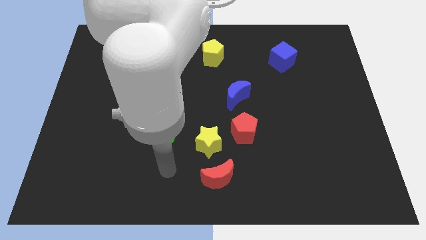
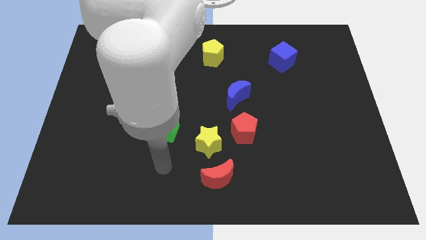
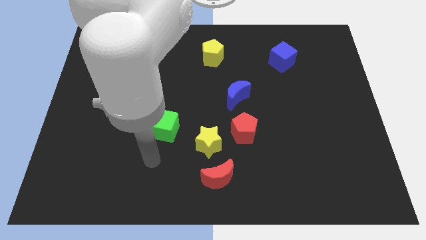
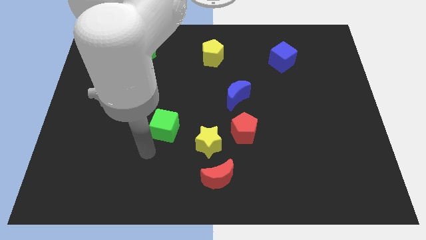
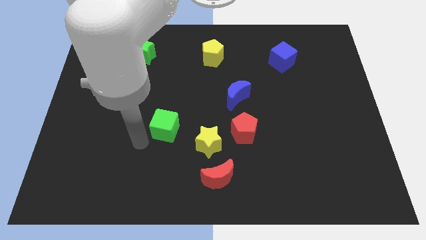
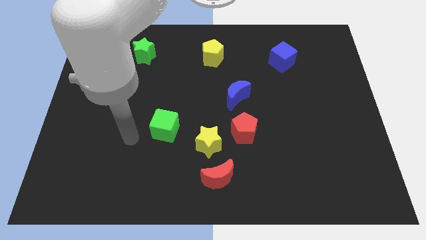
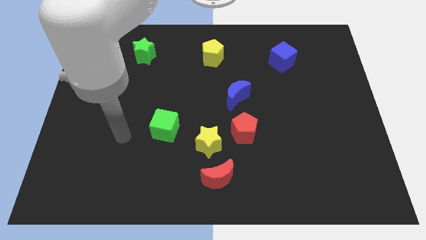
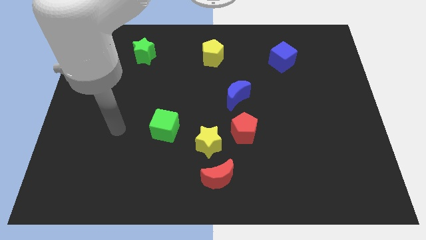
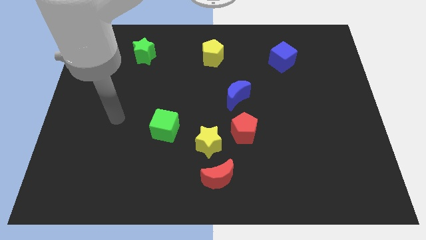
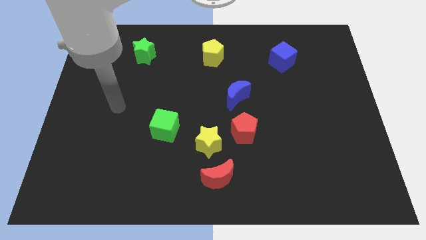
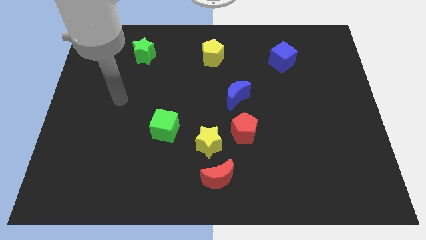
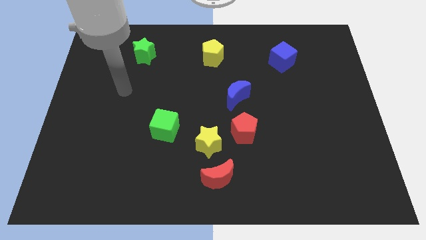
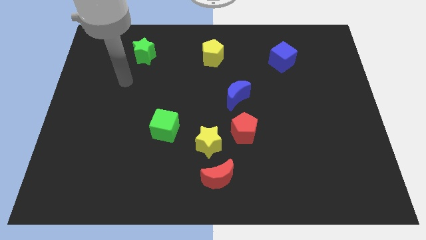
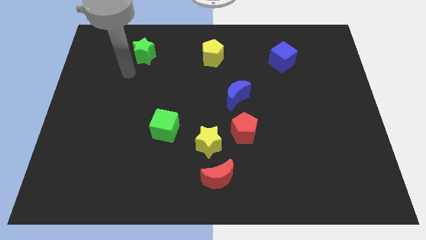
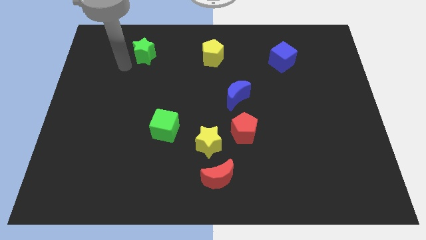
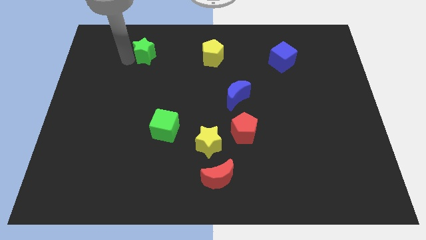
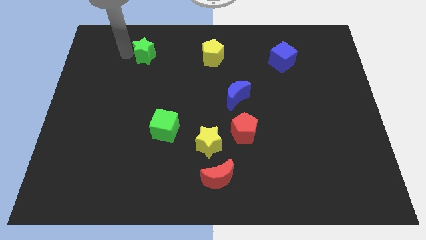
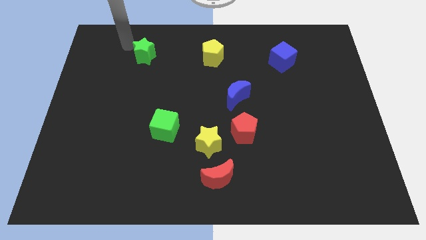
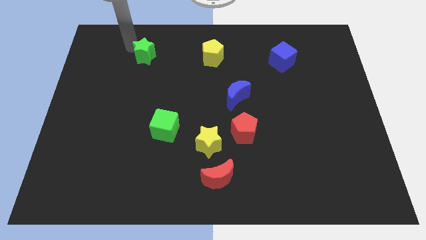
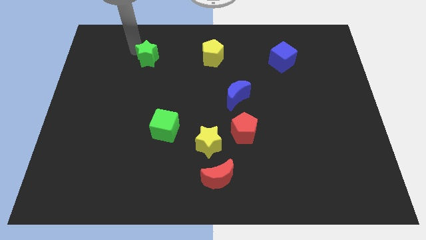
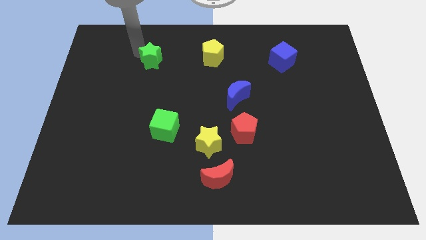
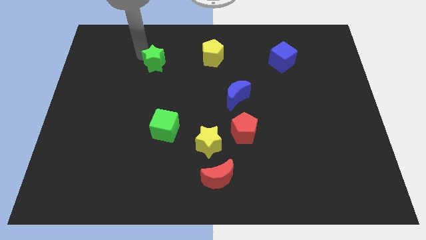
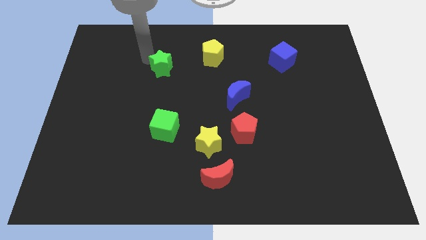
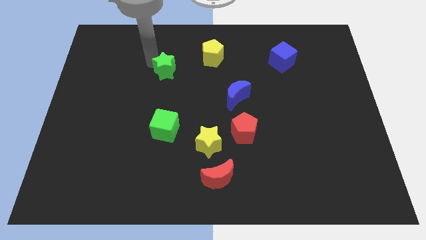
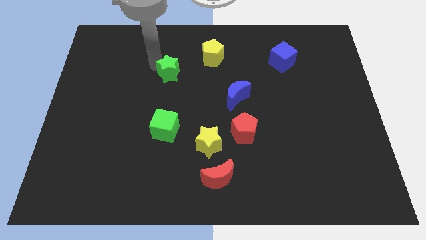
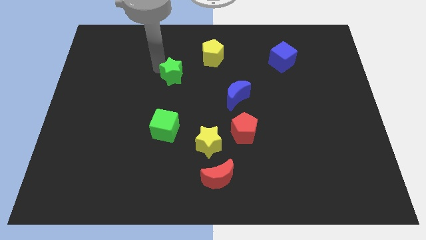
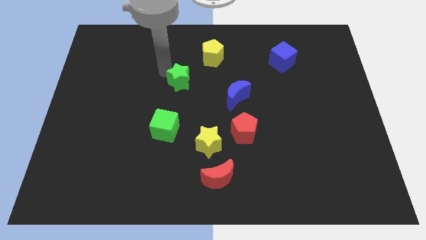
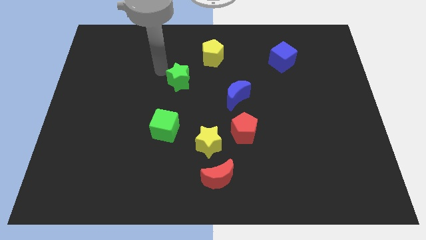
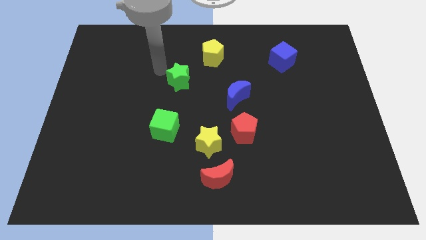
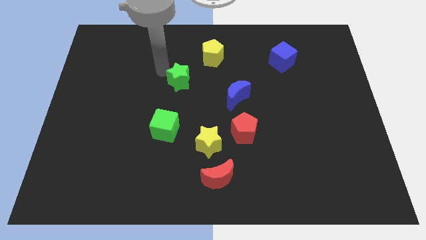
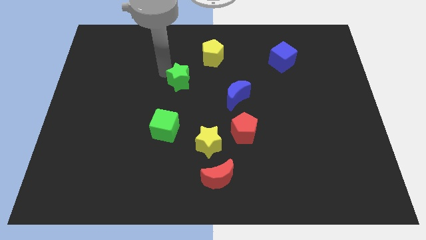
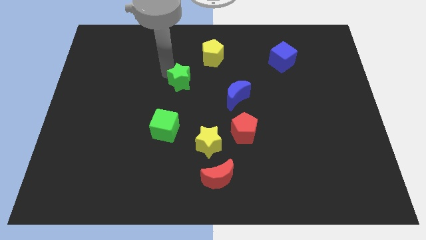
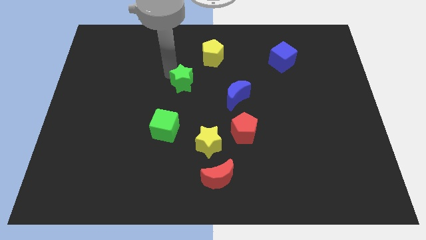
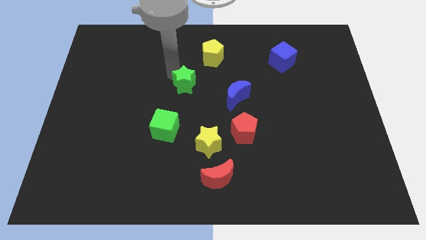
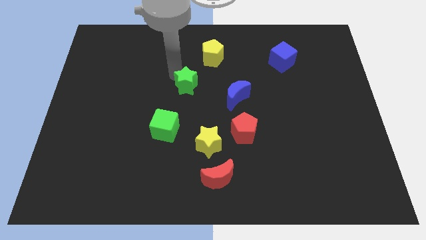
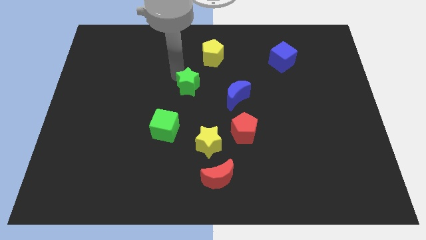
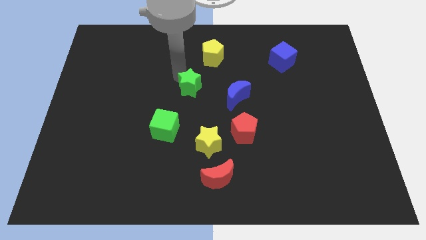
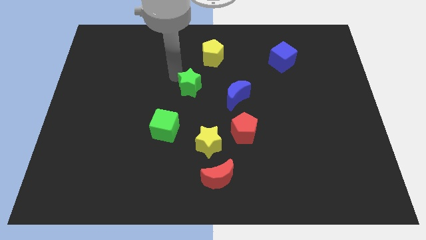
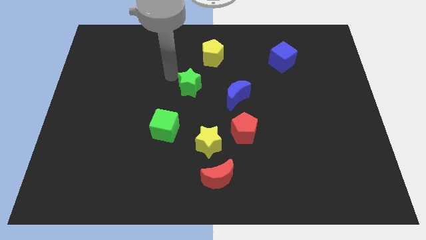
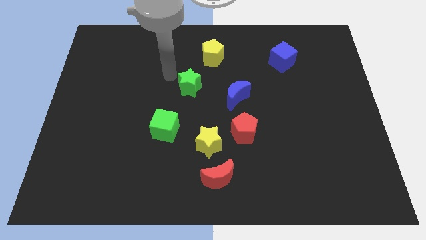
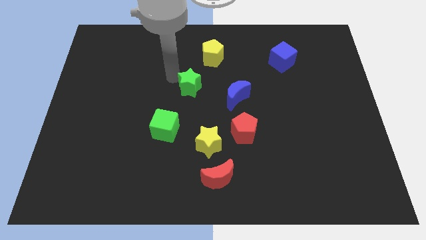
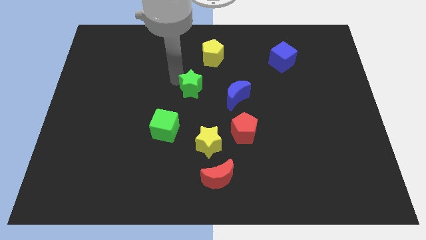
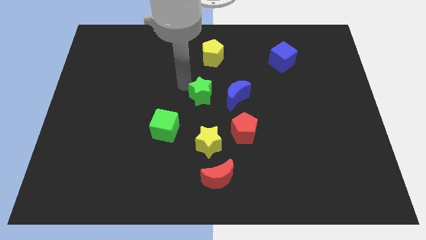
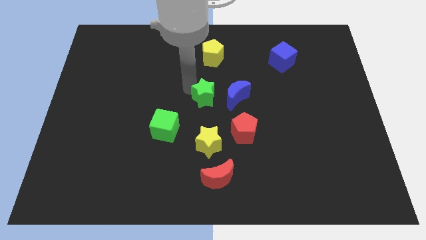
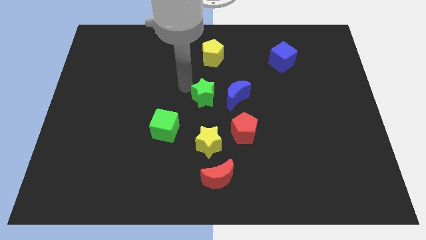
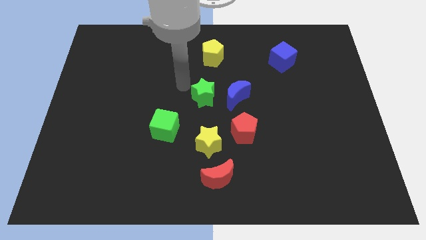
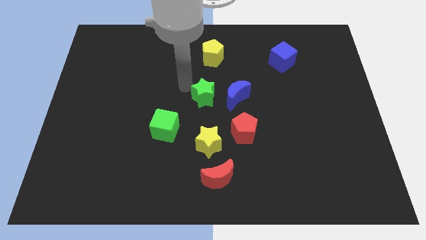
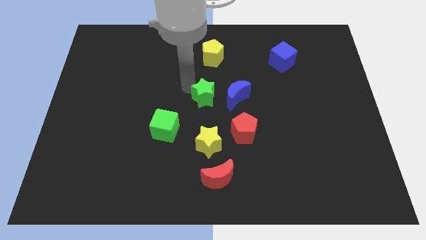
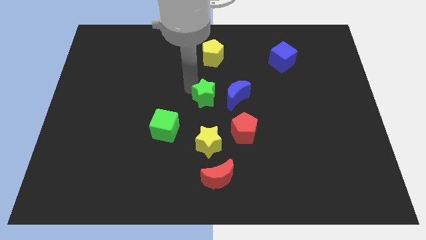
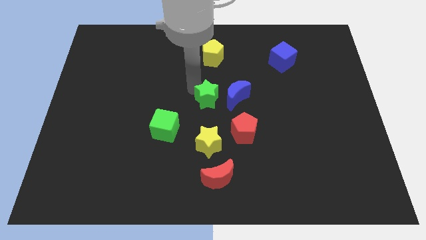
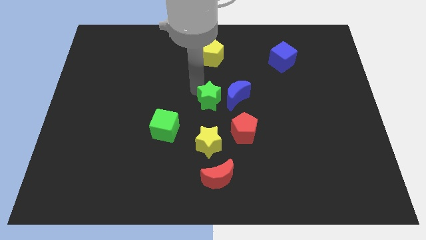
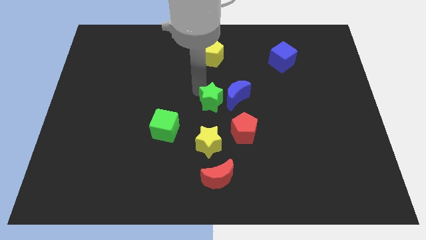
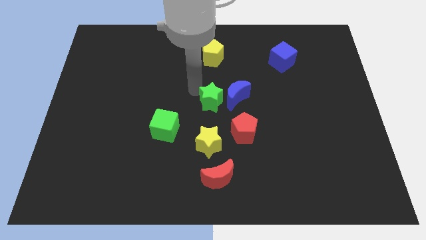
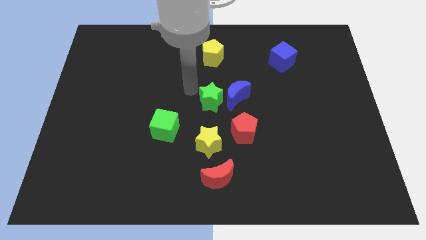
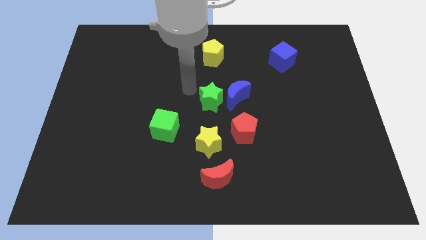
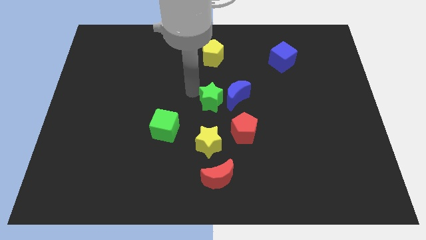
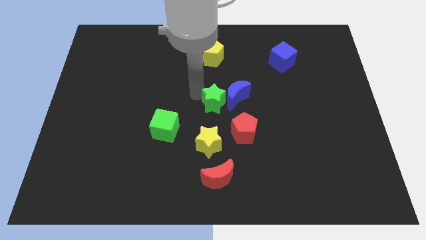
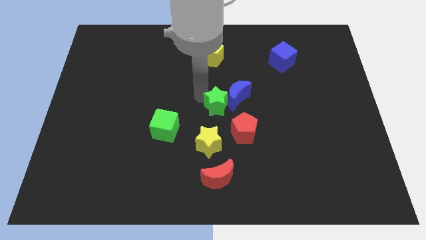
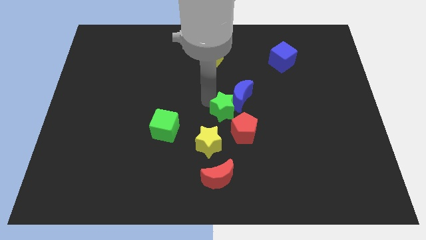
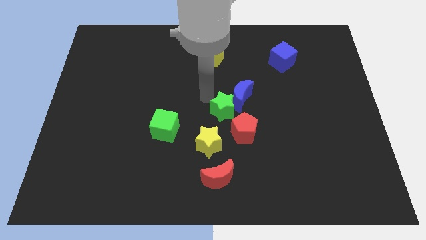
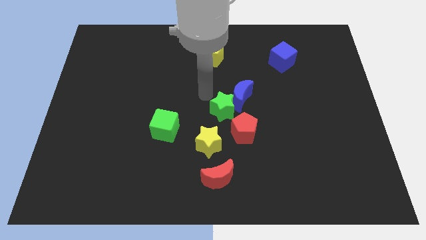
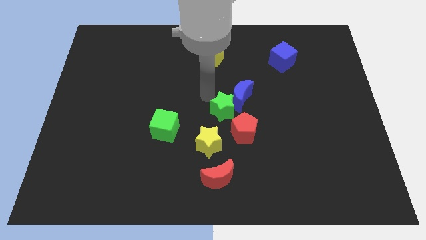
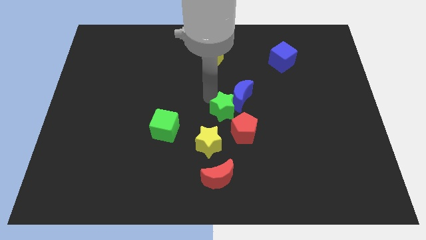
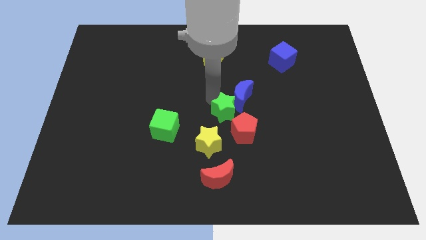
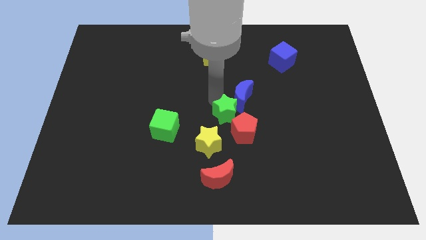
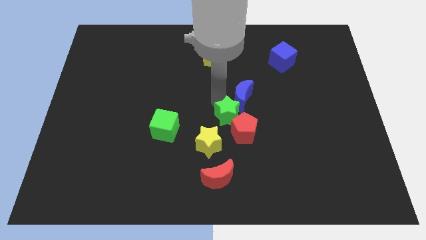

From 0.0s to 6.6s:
push the green star next to the red pentagon

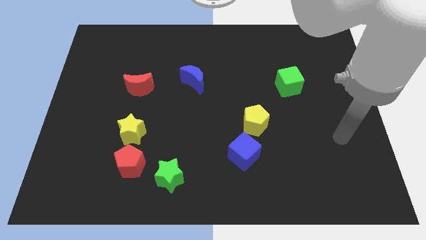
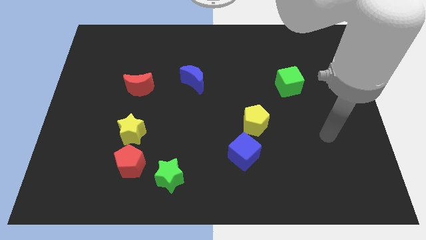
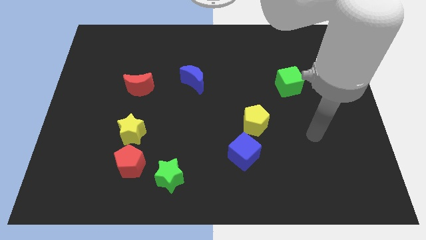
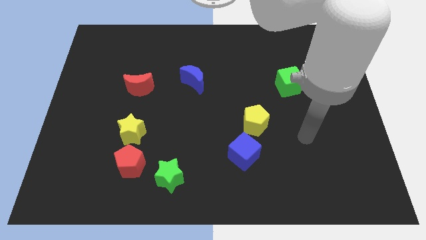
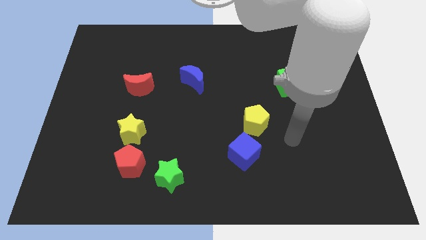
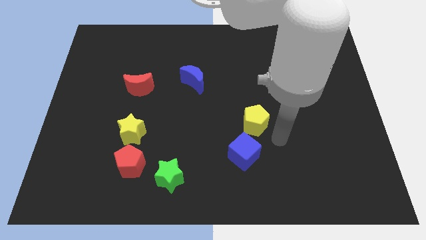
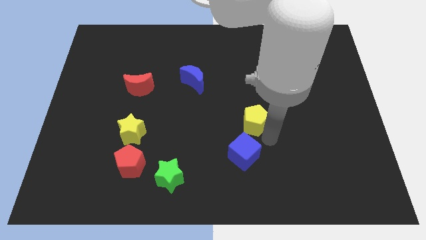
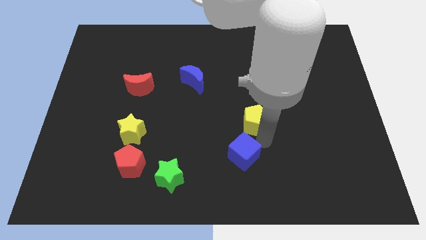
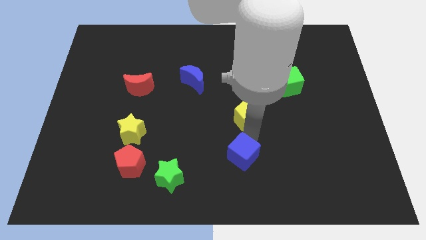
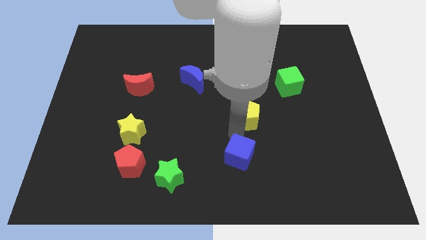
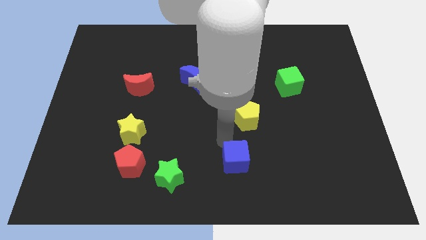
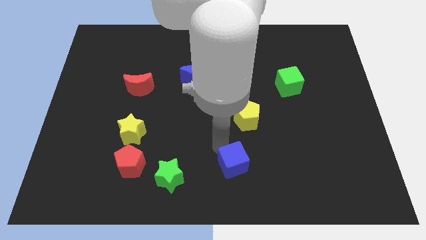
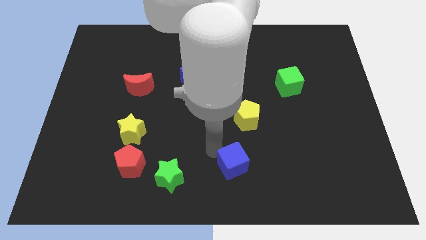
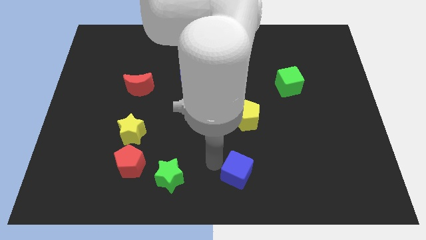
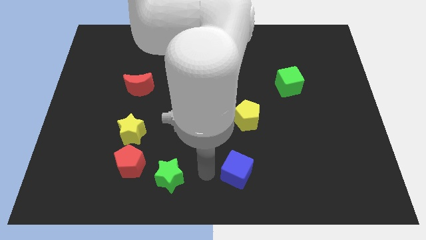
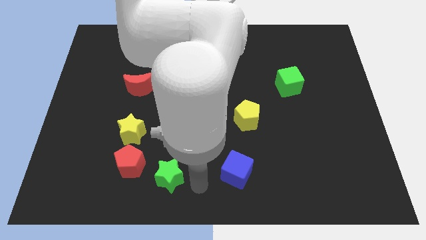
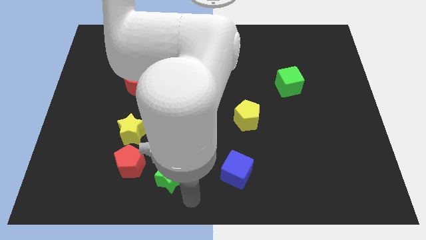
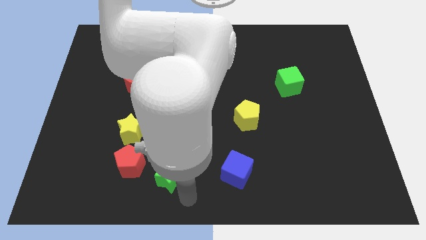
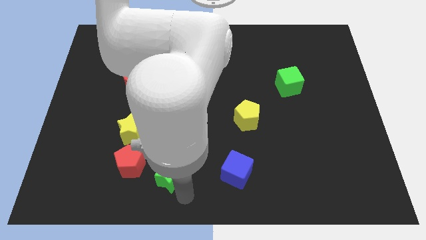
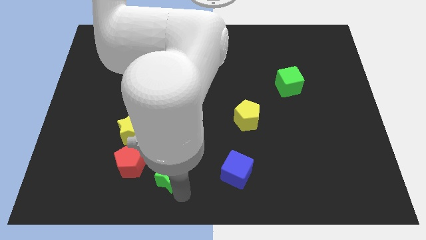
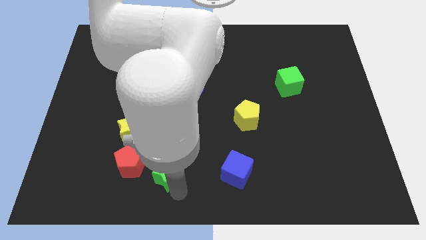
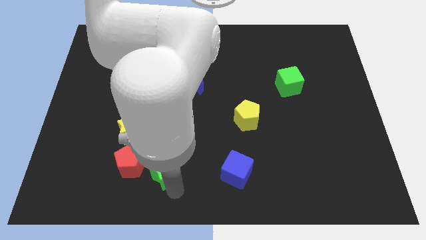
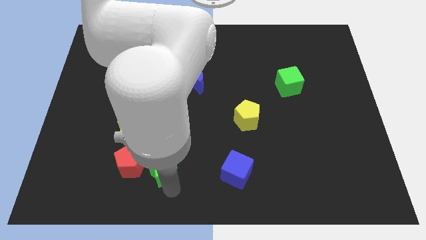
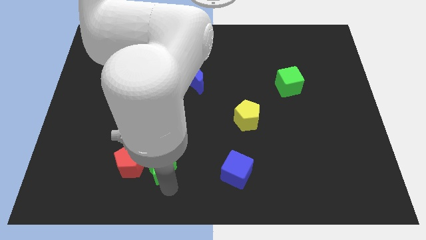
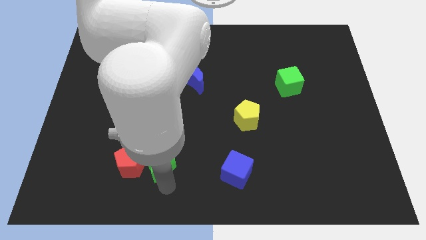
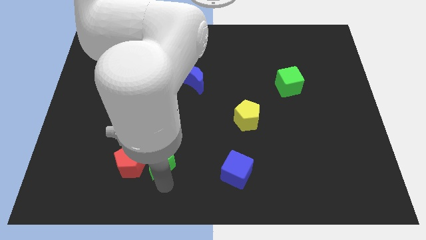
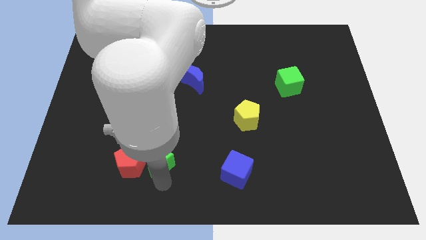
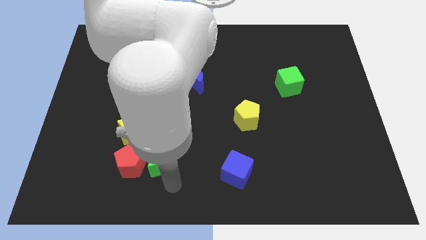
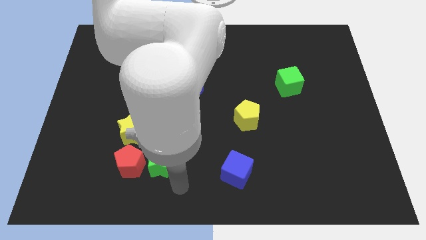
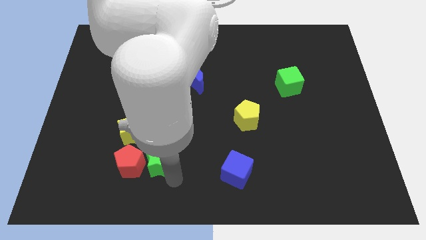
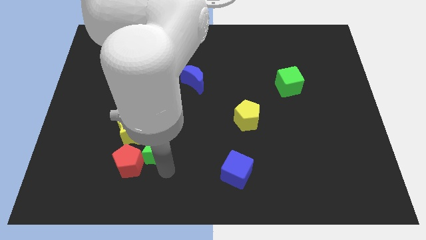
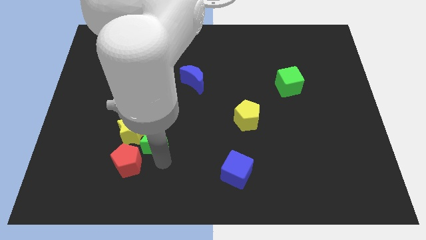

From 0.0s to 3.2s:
move the green star towards the yellow star
